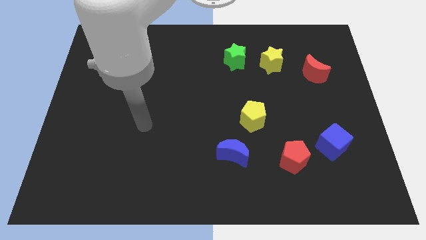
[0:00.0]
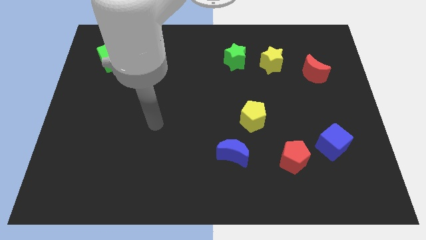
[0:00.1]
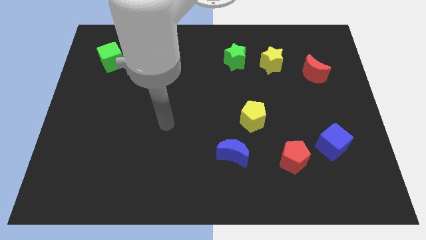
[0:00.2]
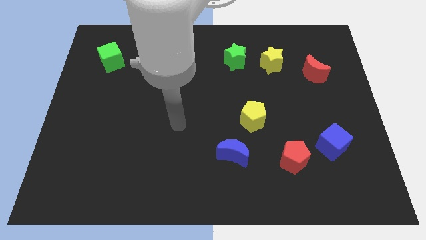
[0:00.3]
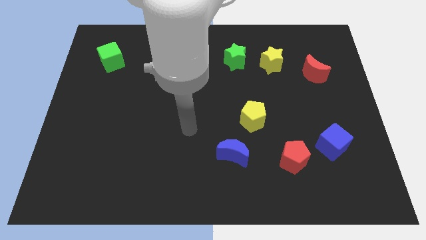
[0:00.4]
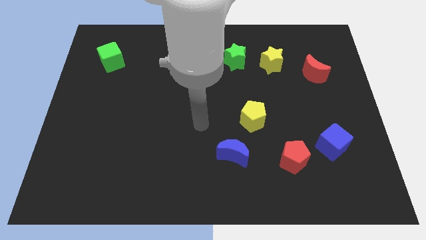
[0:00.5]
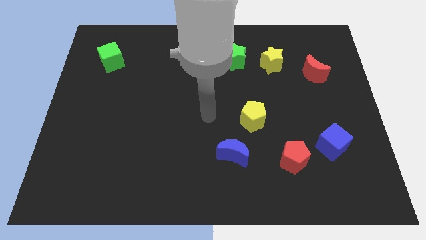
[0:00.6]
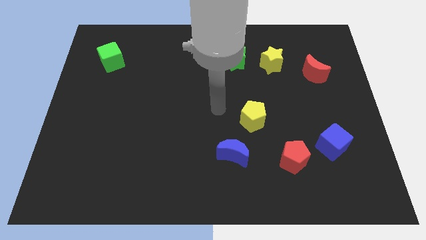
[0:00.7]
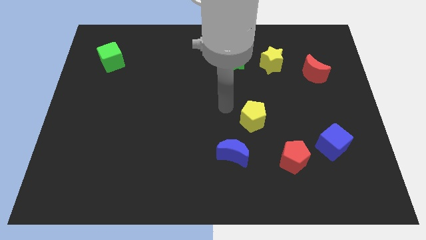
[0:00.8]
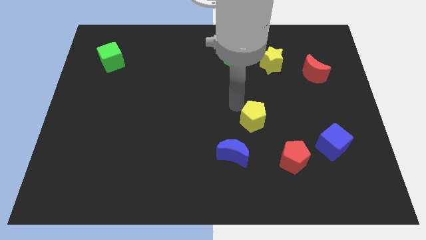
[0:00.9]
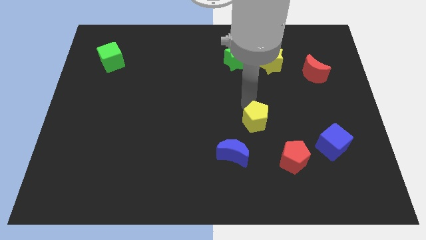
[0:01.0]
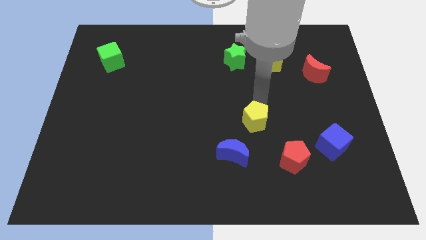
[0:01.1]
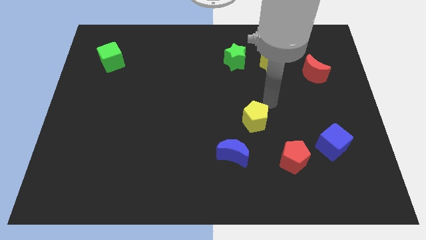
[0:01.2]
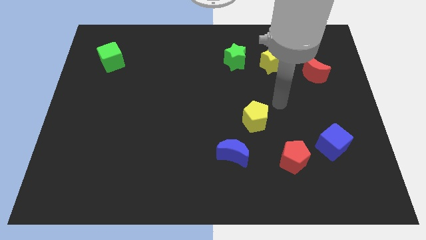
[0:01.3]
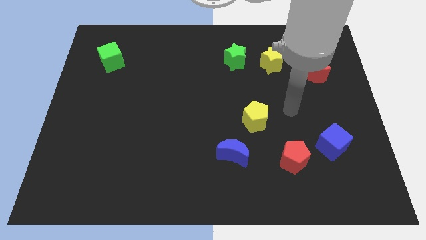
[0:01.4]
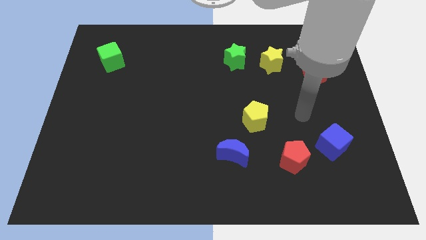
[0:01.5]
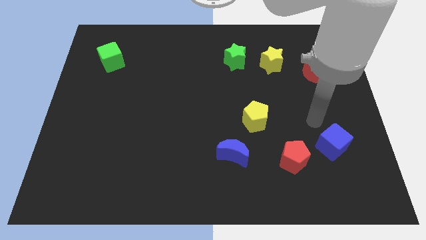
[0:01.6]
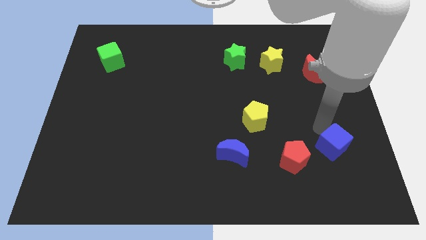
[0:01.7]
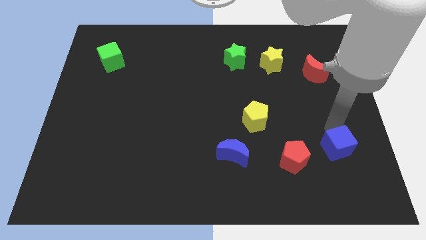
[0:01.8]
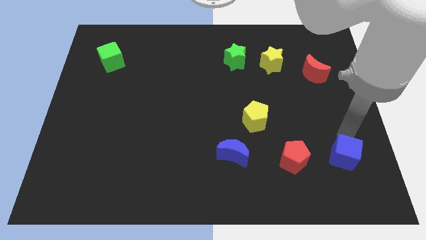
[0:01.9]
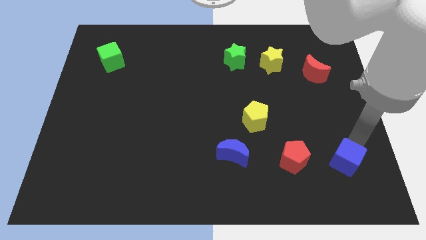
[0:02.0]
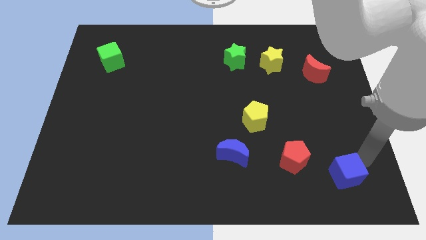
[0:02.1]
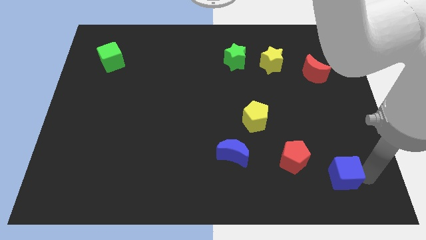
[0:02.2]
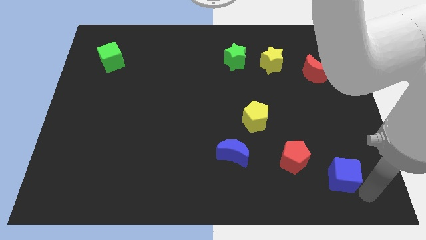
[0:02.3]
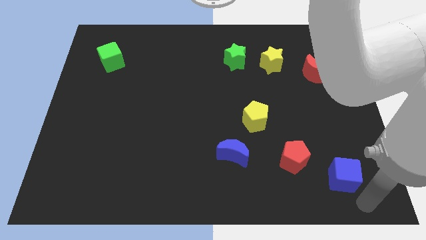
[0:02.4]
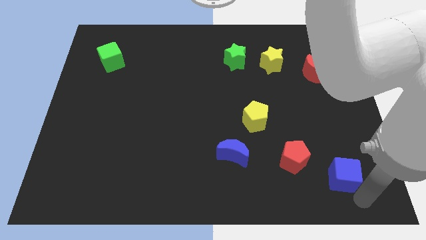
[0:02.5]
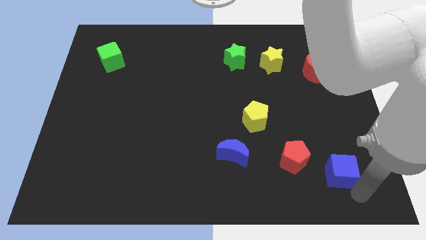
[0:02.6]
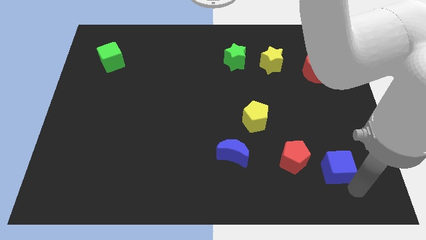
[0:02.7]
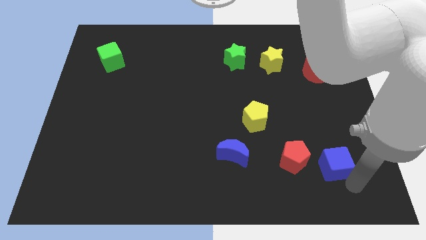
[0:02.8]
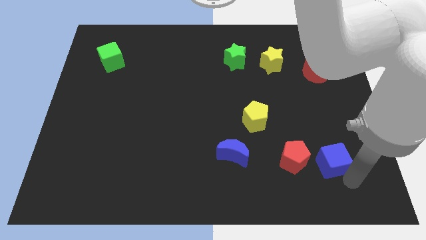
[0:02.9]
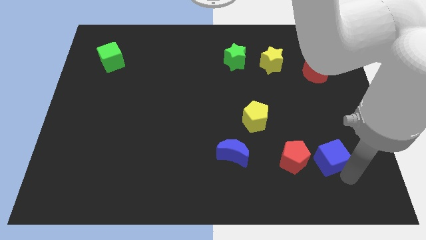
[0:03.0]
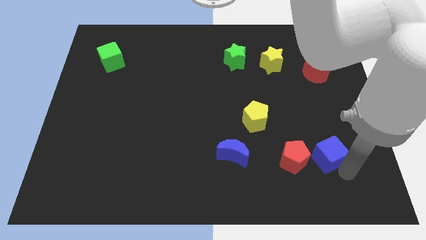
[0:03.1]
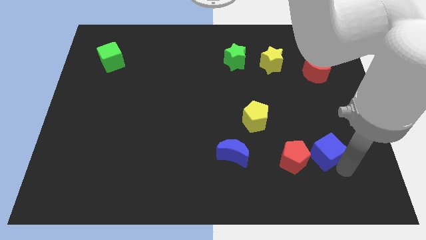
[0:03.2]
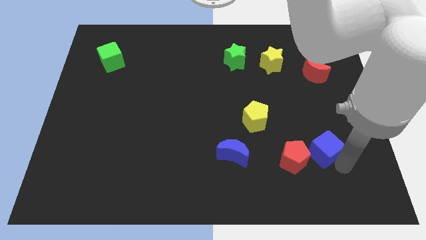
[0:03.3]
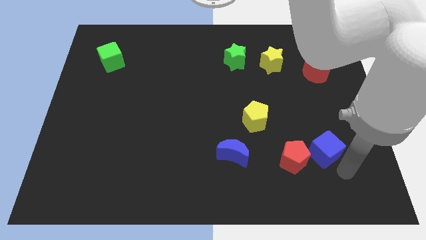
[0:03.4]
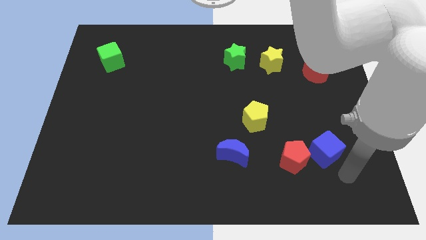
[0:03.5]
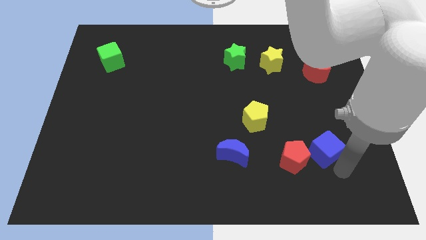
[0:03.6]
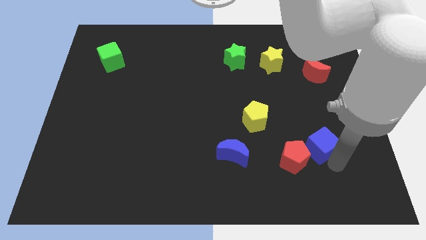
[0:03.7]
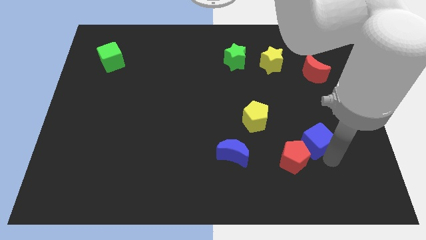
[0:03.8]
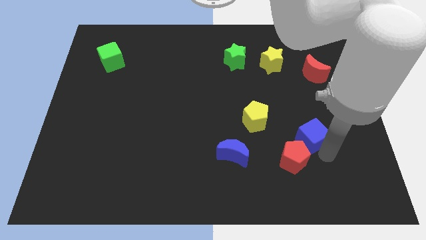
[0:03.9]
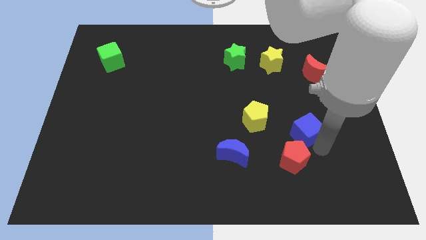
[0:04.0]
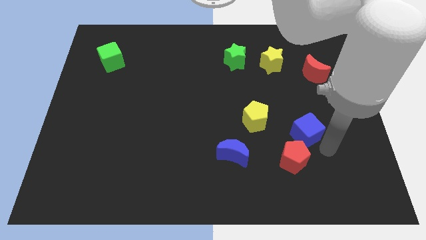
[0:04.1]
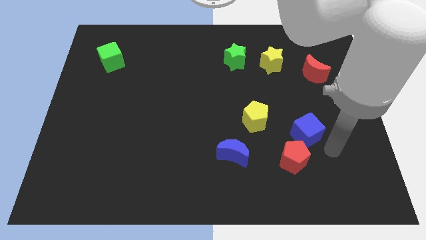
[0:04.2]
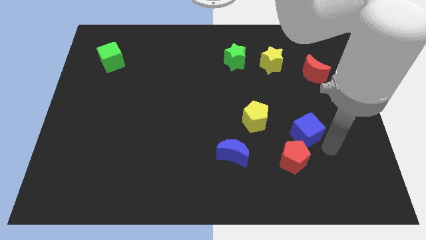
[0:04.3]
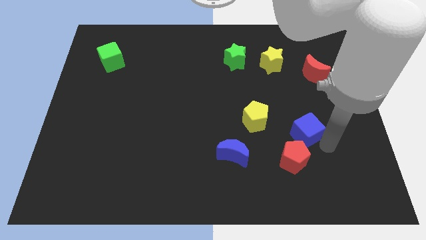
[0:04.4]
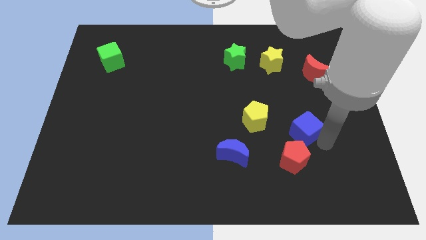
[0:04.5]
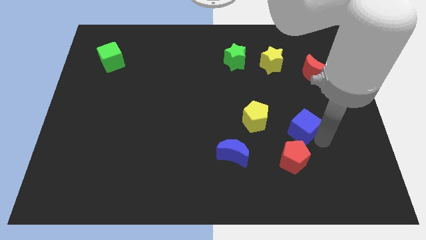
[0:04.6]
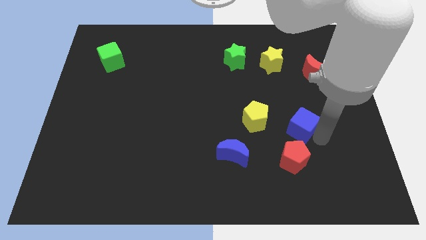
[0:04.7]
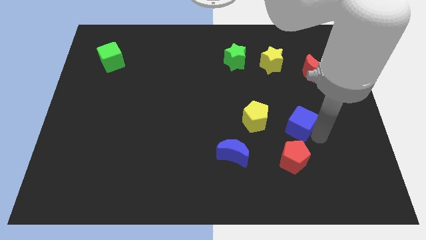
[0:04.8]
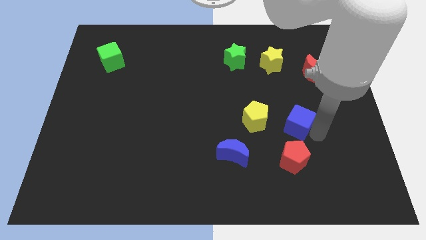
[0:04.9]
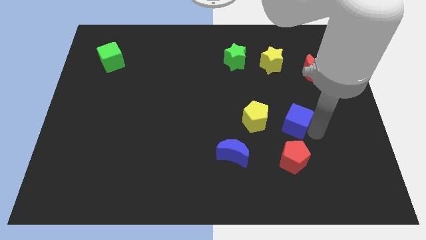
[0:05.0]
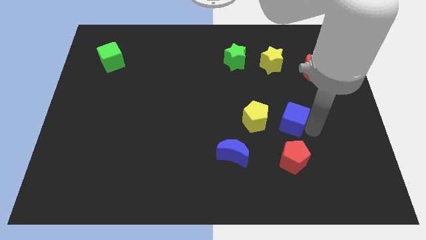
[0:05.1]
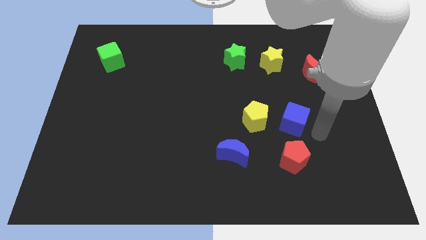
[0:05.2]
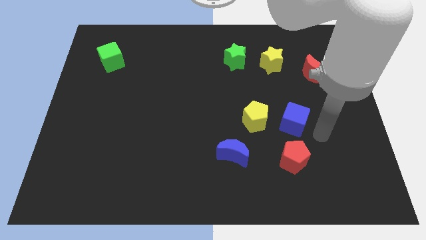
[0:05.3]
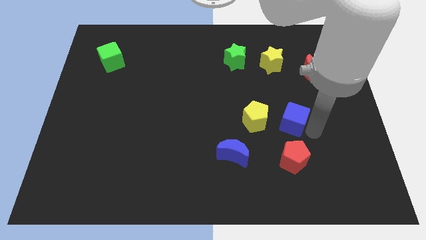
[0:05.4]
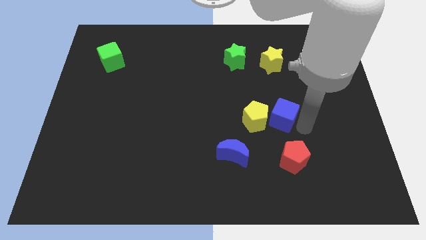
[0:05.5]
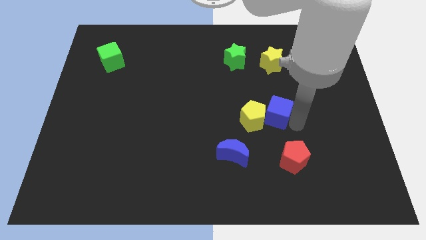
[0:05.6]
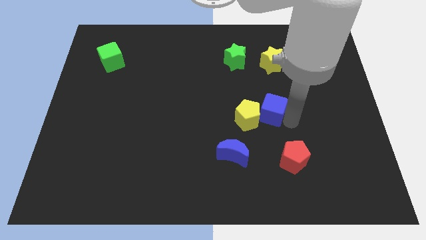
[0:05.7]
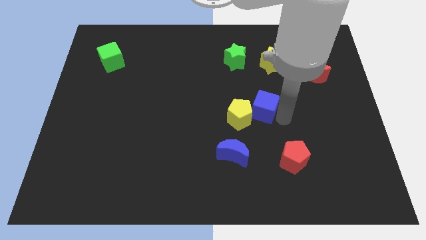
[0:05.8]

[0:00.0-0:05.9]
slide the blue cube to the middle
